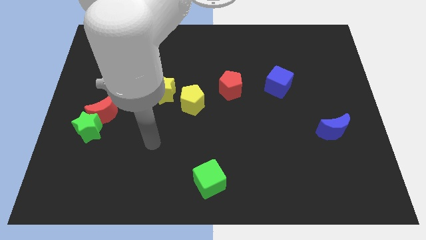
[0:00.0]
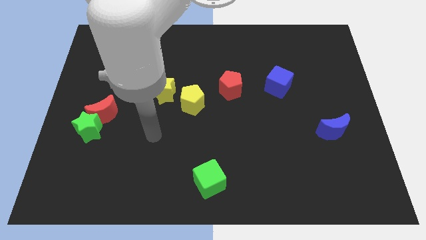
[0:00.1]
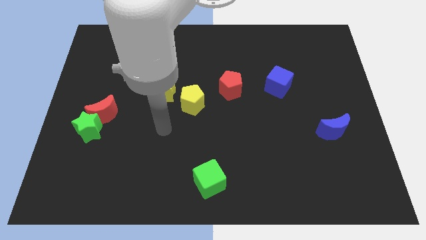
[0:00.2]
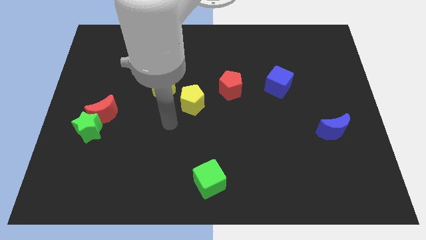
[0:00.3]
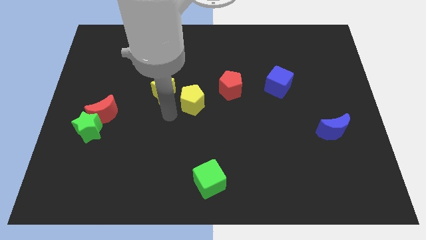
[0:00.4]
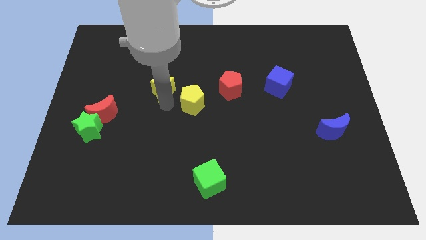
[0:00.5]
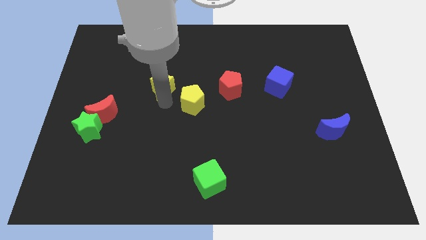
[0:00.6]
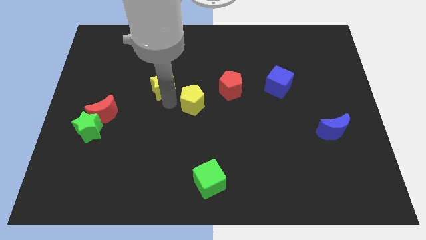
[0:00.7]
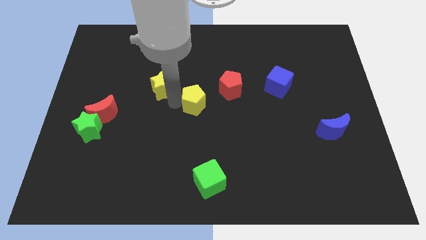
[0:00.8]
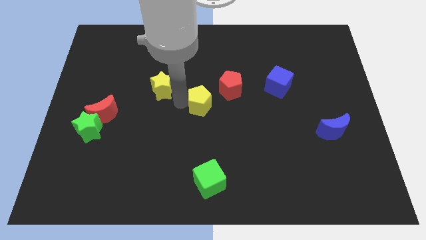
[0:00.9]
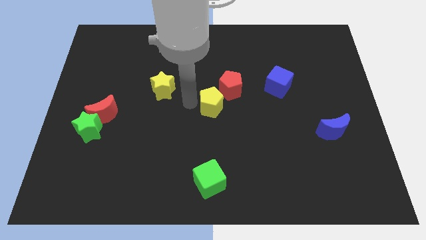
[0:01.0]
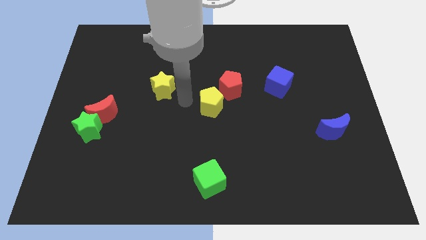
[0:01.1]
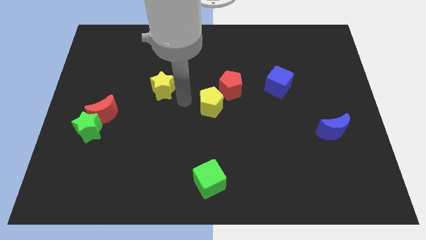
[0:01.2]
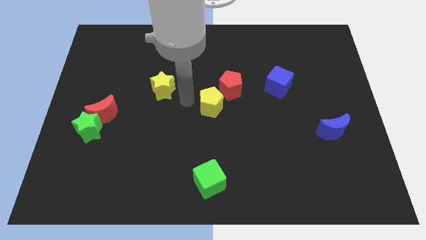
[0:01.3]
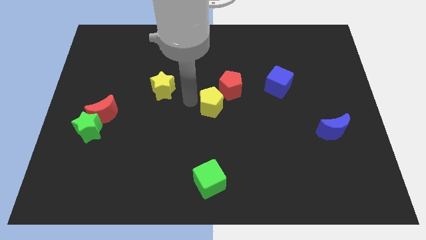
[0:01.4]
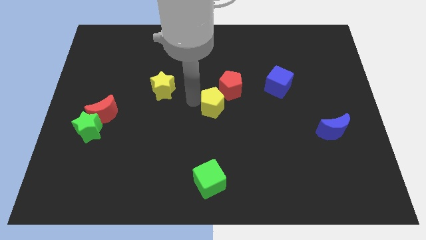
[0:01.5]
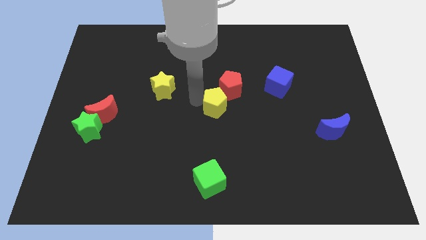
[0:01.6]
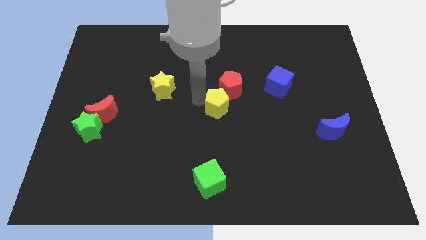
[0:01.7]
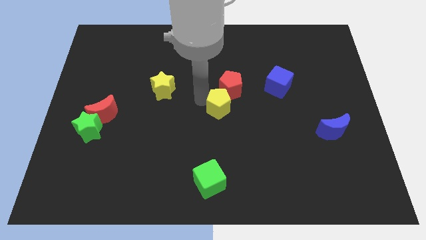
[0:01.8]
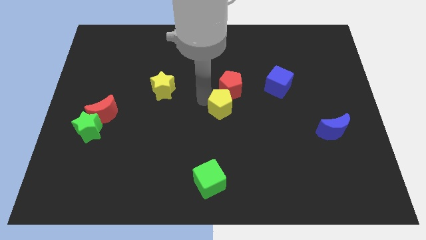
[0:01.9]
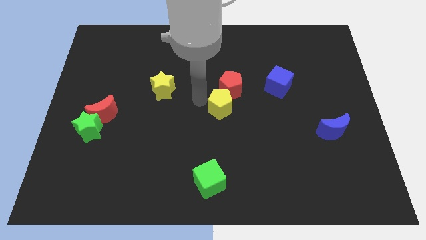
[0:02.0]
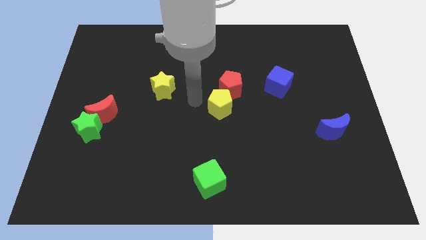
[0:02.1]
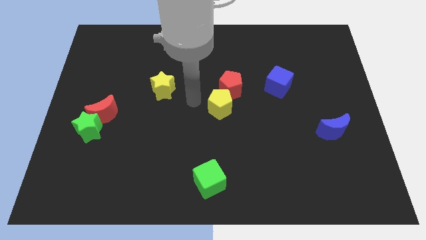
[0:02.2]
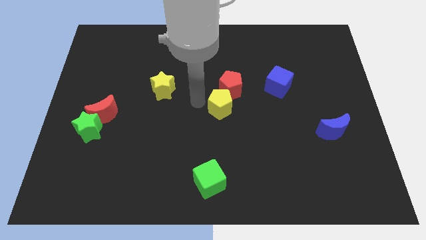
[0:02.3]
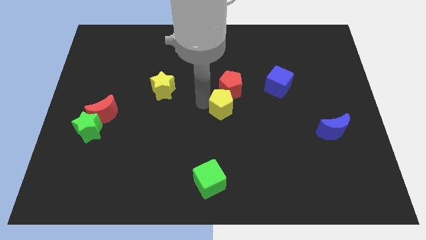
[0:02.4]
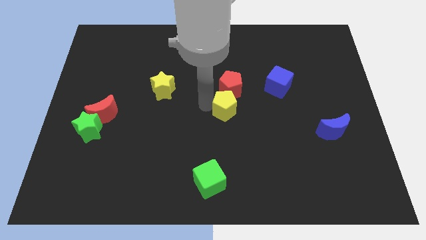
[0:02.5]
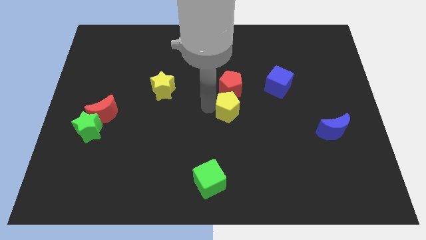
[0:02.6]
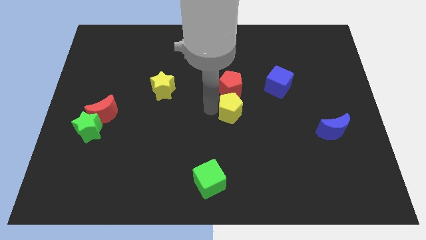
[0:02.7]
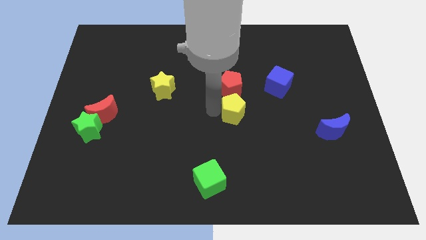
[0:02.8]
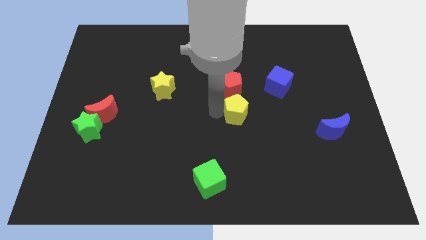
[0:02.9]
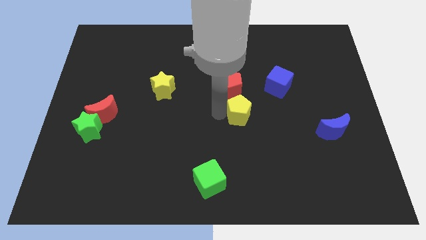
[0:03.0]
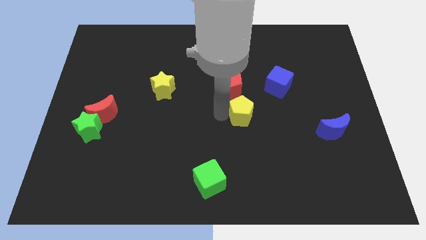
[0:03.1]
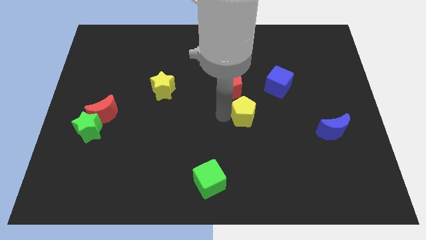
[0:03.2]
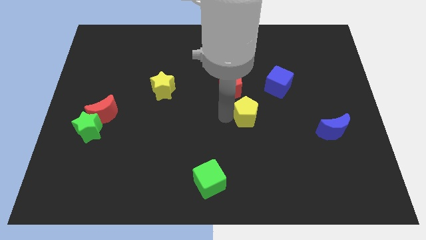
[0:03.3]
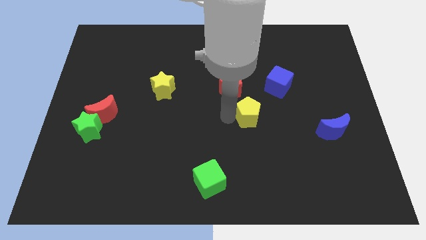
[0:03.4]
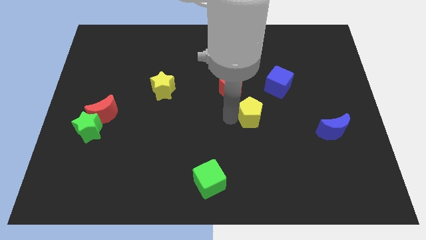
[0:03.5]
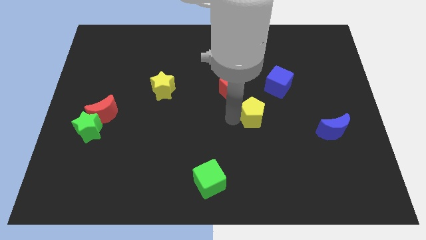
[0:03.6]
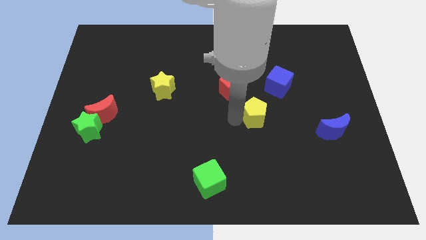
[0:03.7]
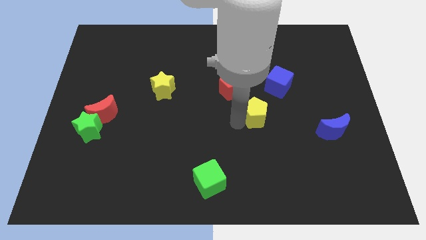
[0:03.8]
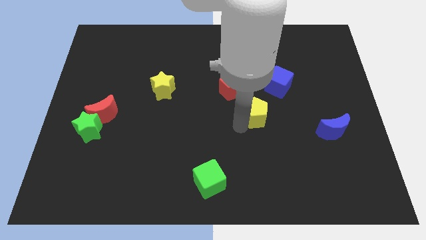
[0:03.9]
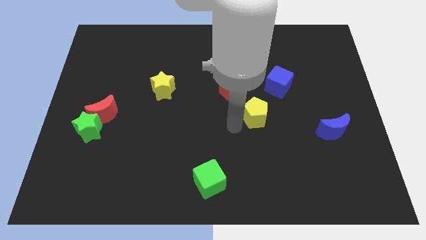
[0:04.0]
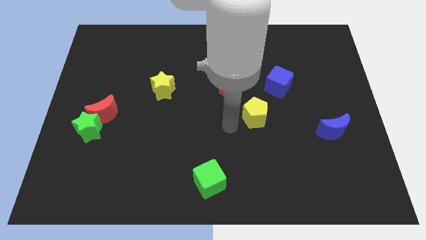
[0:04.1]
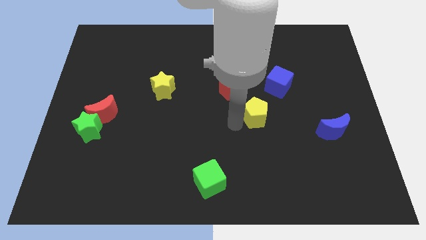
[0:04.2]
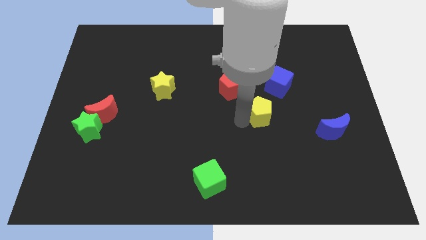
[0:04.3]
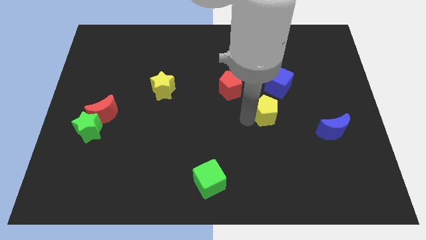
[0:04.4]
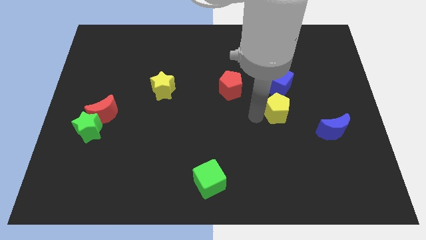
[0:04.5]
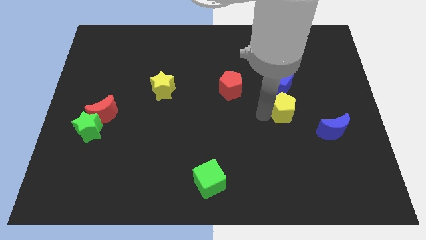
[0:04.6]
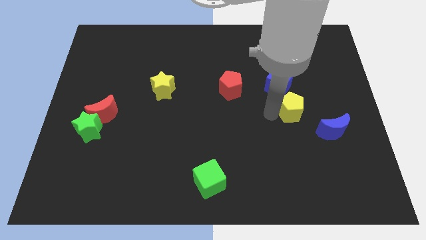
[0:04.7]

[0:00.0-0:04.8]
move the yellow pentagon to the bottom right of the blue cube

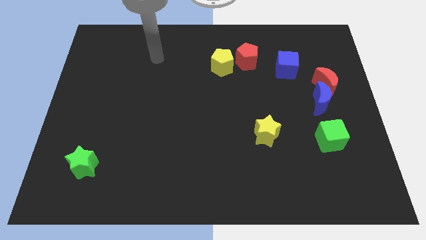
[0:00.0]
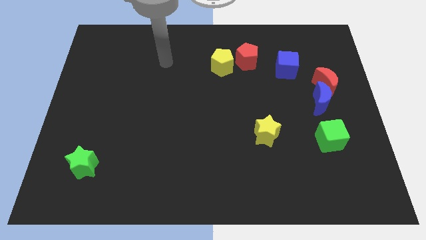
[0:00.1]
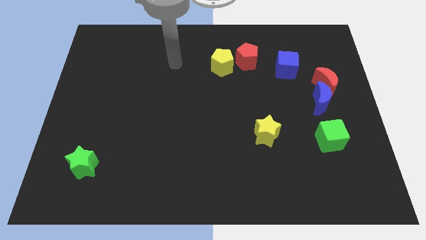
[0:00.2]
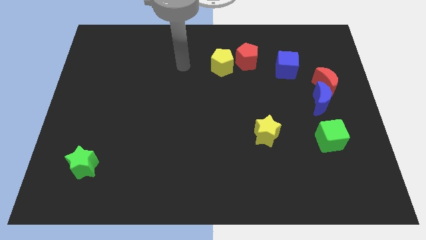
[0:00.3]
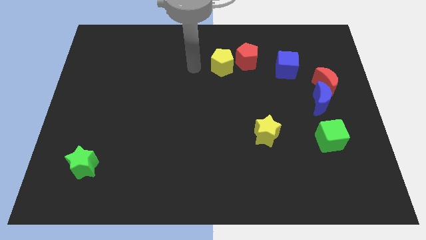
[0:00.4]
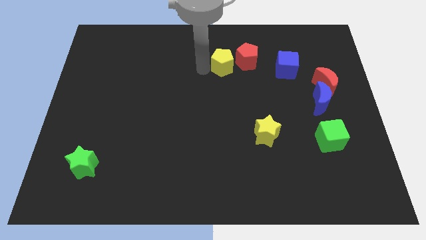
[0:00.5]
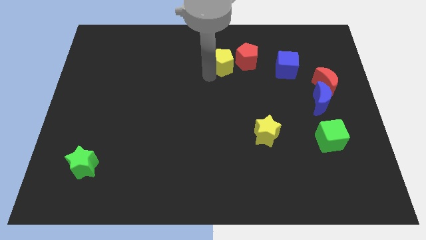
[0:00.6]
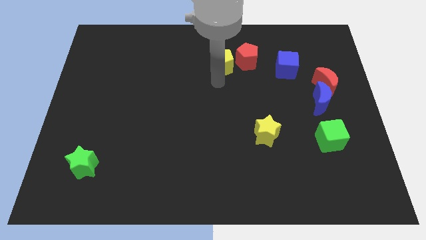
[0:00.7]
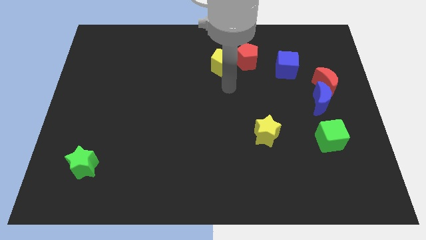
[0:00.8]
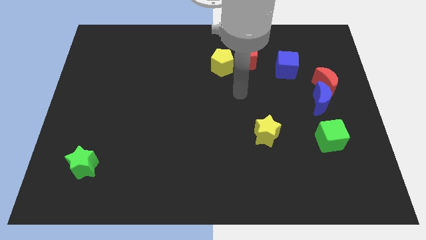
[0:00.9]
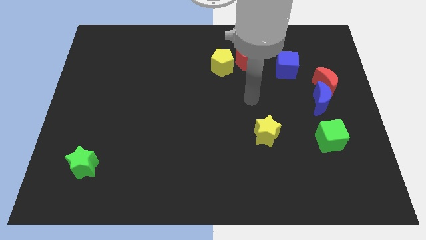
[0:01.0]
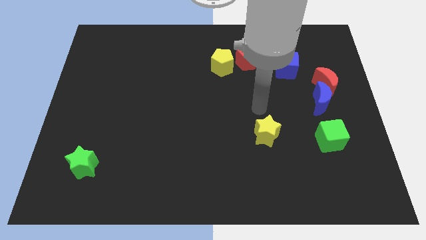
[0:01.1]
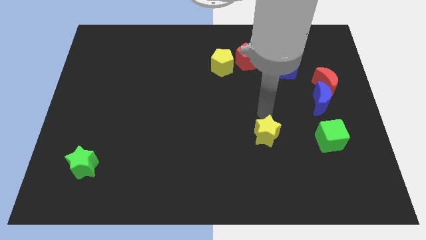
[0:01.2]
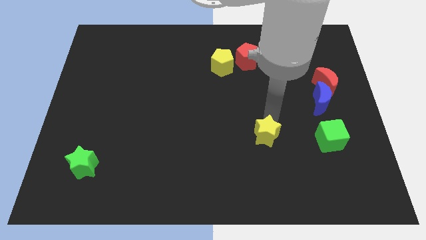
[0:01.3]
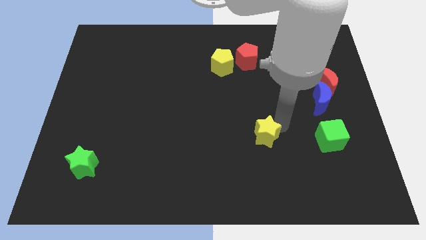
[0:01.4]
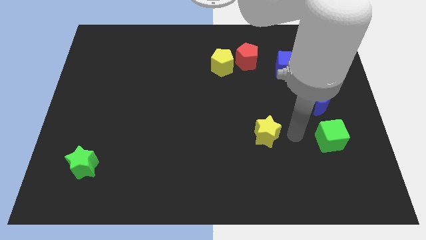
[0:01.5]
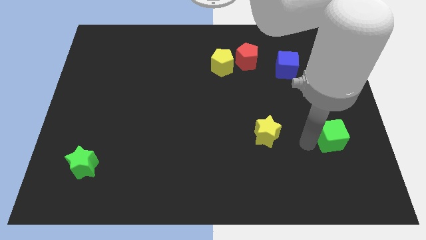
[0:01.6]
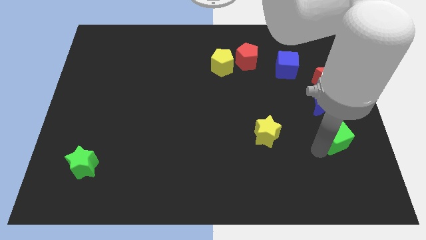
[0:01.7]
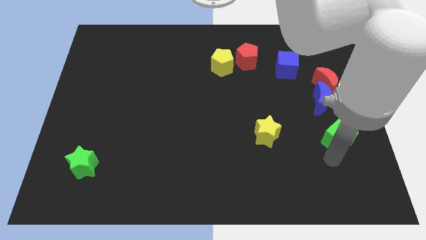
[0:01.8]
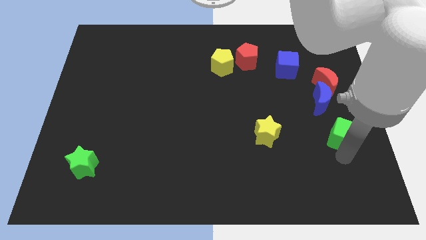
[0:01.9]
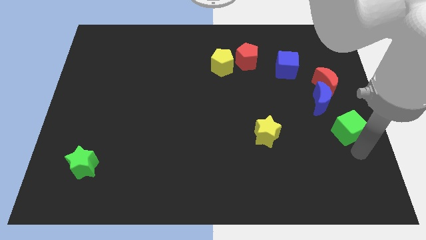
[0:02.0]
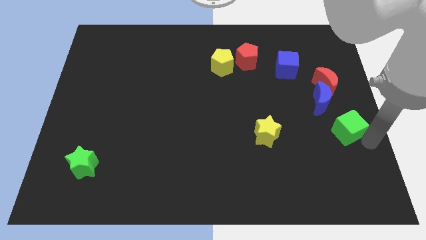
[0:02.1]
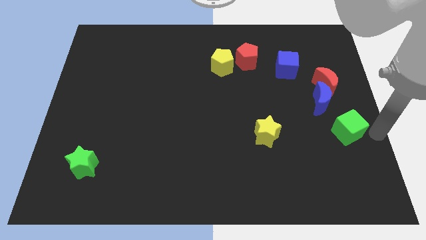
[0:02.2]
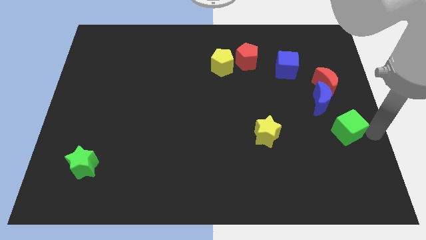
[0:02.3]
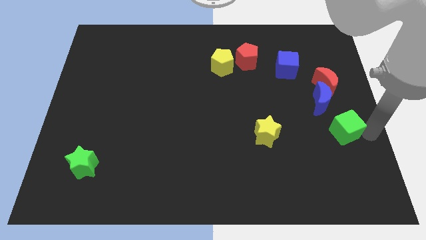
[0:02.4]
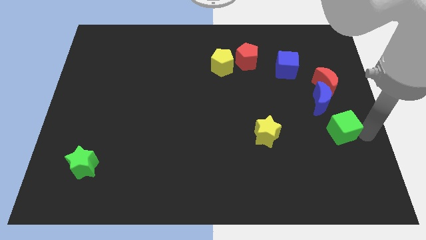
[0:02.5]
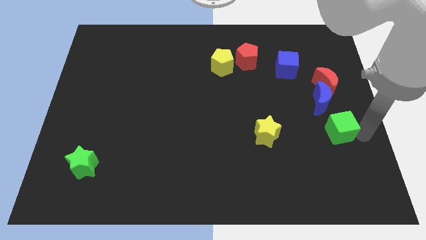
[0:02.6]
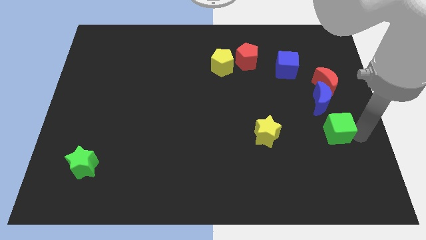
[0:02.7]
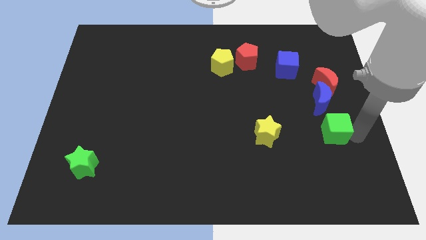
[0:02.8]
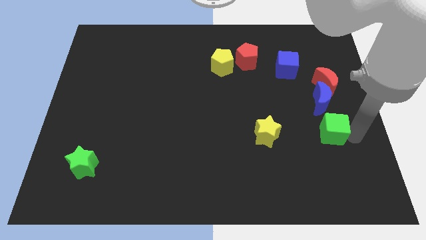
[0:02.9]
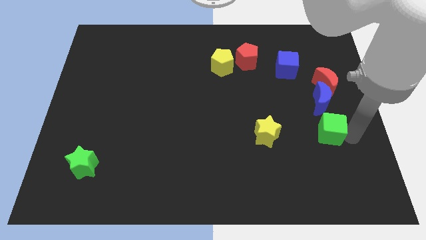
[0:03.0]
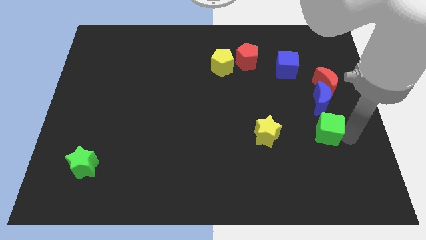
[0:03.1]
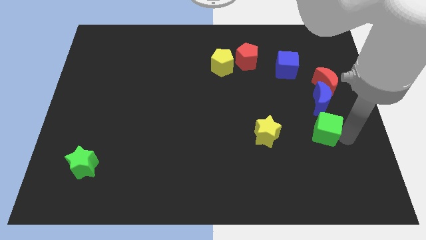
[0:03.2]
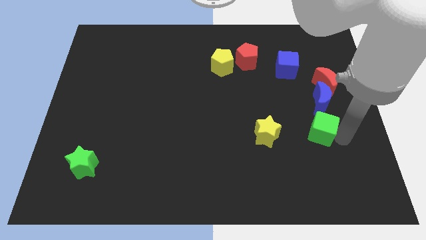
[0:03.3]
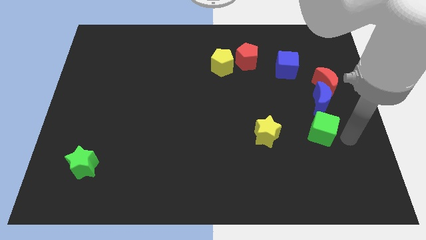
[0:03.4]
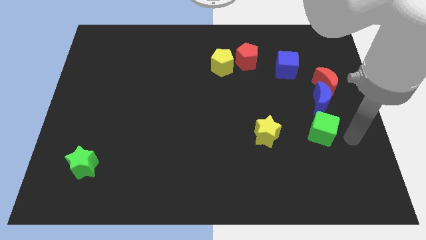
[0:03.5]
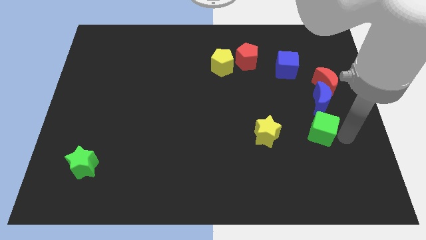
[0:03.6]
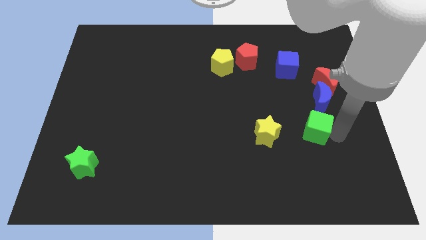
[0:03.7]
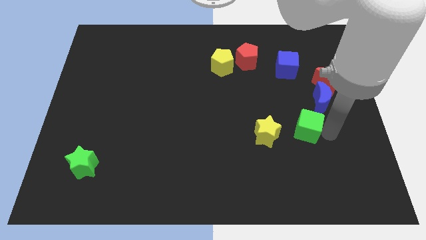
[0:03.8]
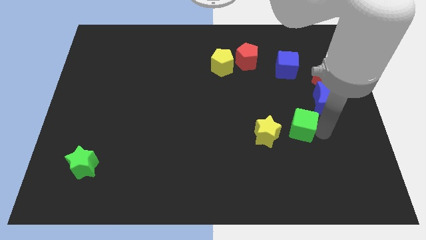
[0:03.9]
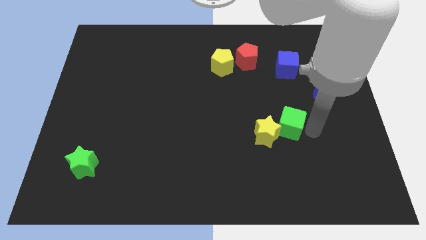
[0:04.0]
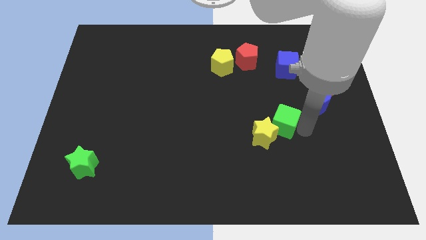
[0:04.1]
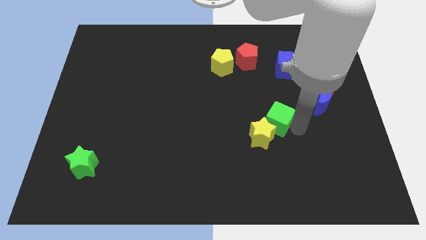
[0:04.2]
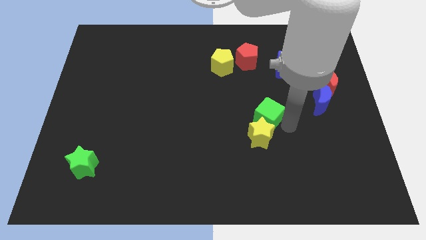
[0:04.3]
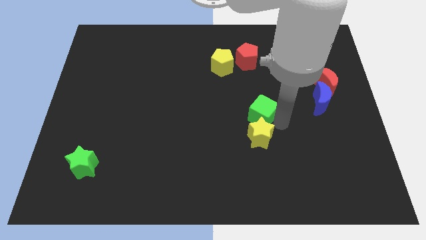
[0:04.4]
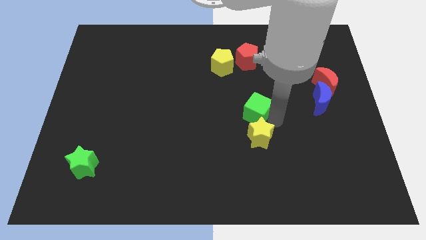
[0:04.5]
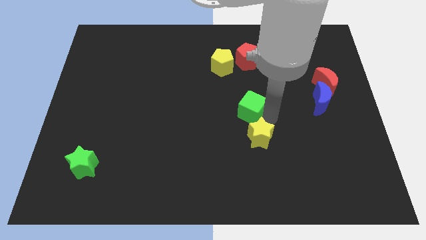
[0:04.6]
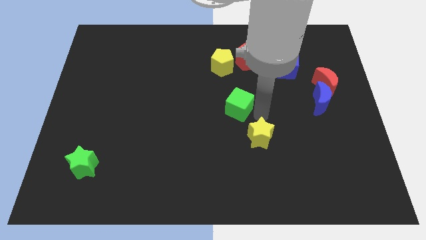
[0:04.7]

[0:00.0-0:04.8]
push the green cube to the bottom of the yellow pentagon
